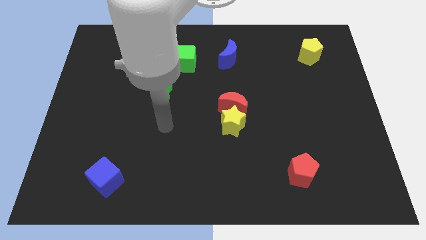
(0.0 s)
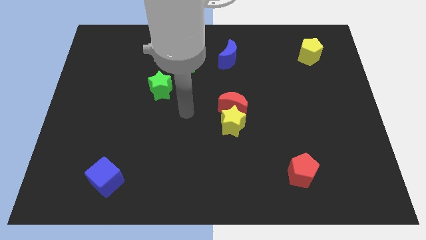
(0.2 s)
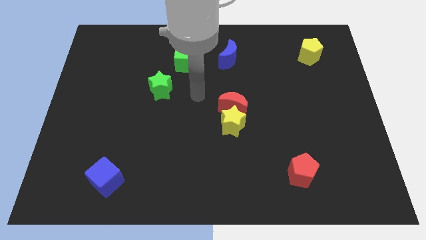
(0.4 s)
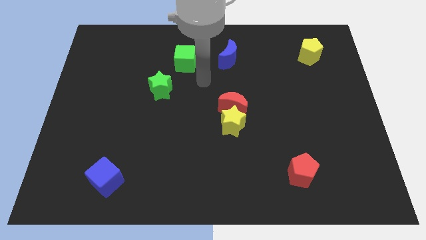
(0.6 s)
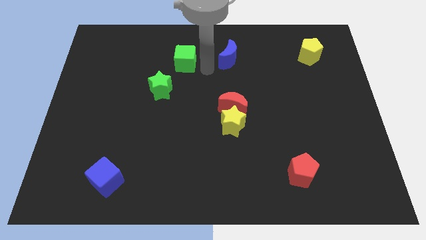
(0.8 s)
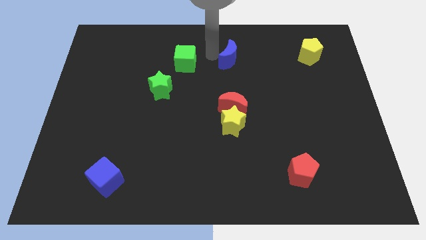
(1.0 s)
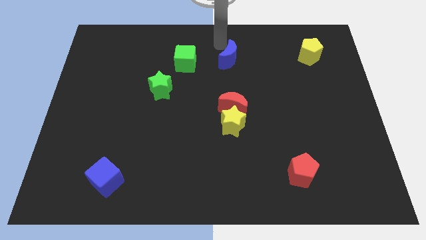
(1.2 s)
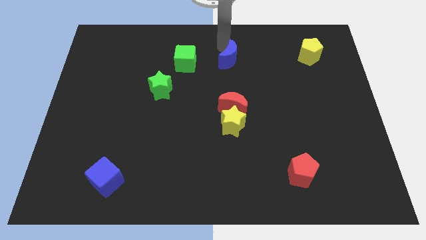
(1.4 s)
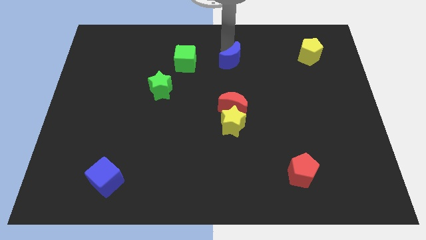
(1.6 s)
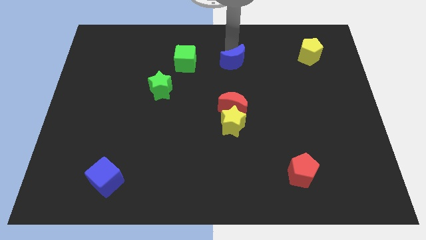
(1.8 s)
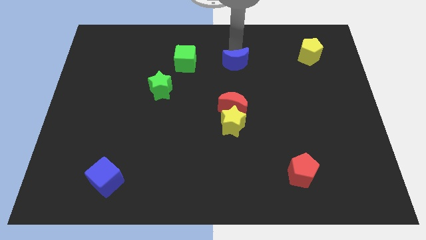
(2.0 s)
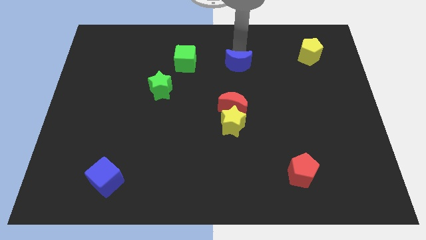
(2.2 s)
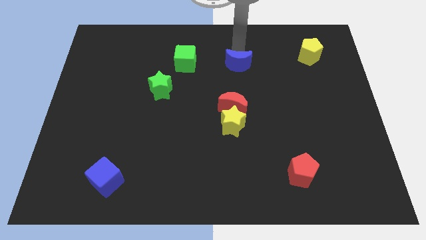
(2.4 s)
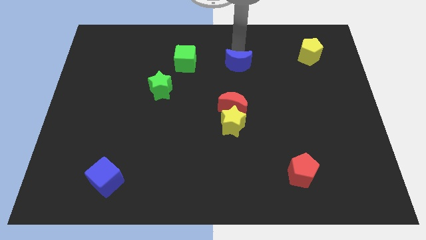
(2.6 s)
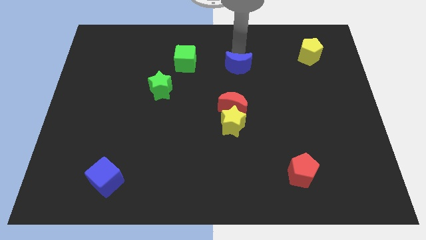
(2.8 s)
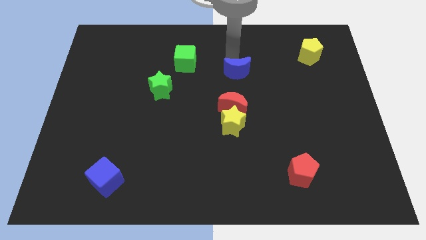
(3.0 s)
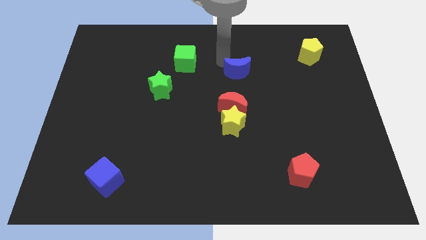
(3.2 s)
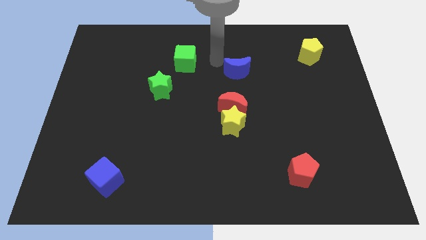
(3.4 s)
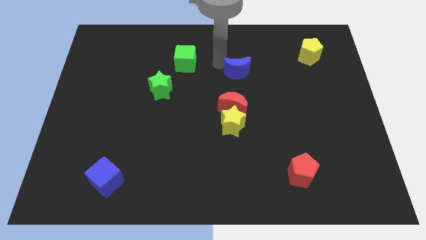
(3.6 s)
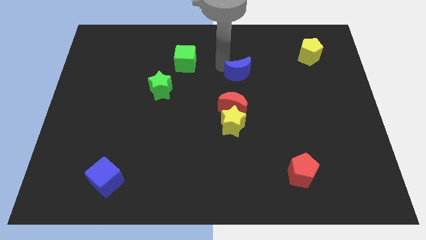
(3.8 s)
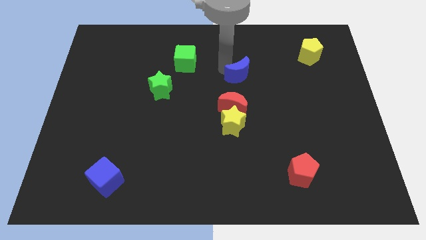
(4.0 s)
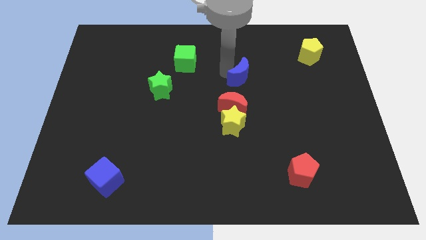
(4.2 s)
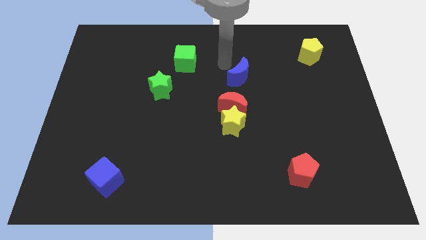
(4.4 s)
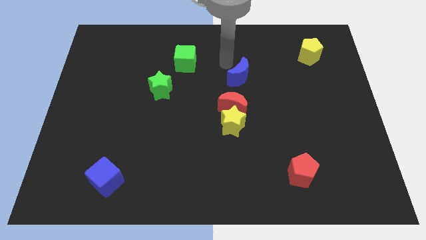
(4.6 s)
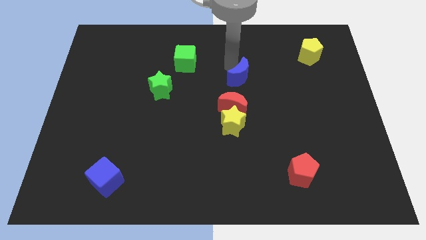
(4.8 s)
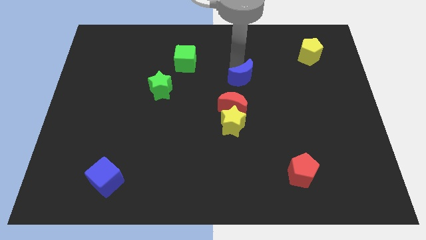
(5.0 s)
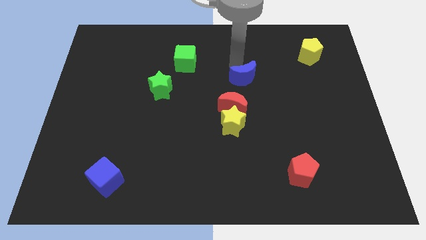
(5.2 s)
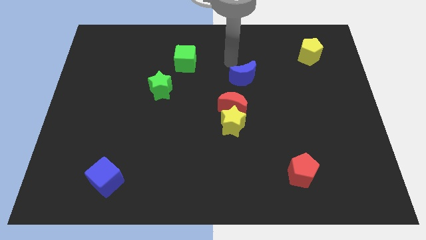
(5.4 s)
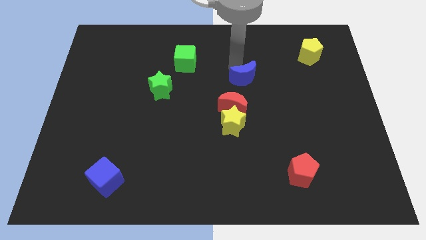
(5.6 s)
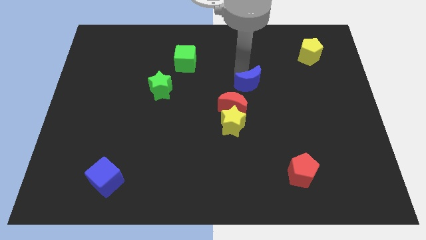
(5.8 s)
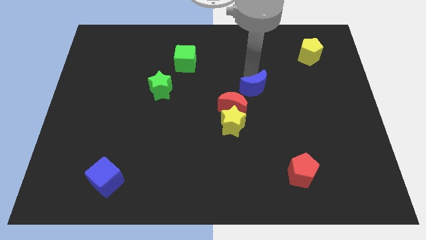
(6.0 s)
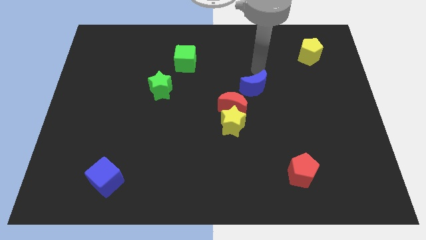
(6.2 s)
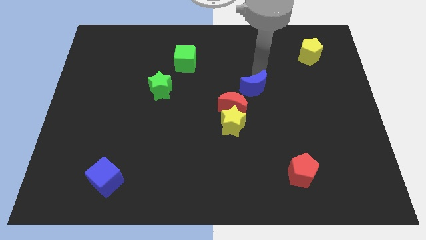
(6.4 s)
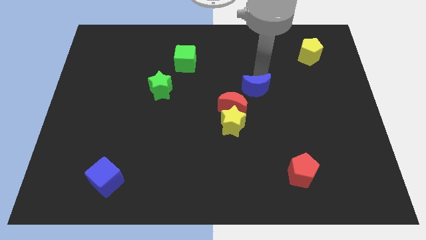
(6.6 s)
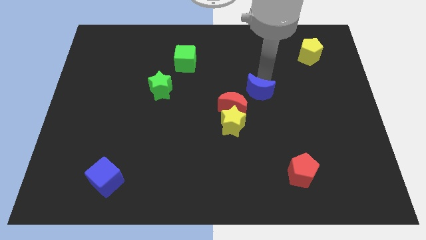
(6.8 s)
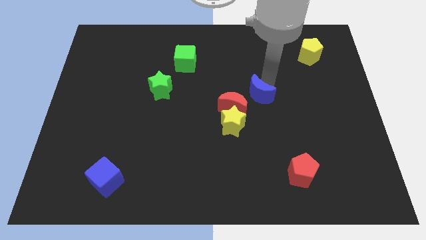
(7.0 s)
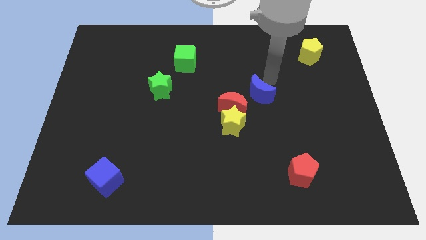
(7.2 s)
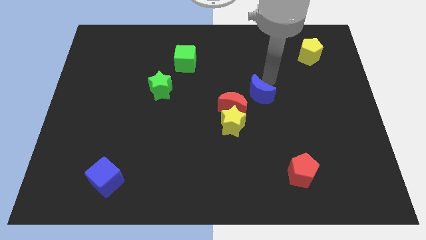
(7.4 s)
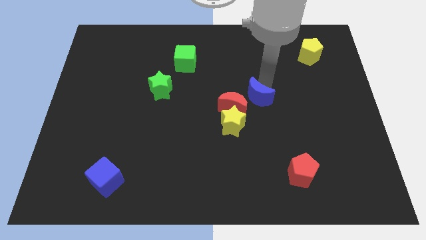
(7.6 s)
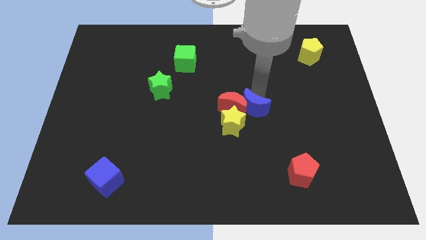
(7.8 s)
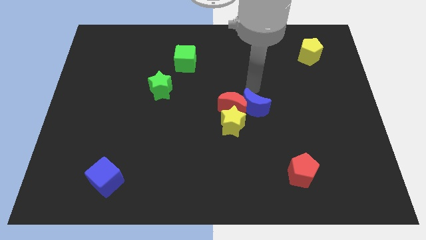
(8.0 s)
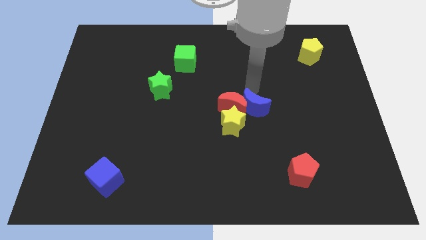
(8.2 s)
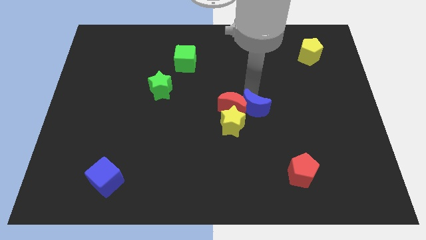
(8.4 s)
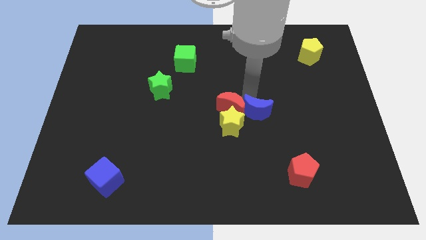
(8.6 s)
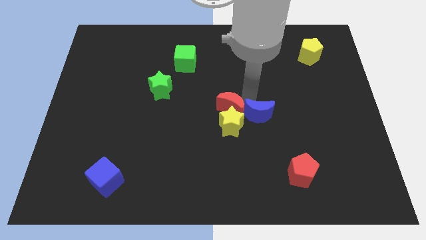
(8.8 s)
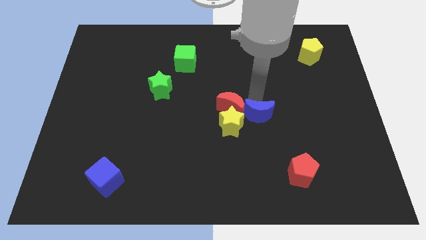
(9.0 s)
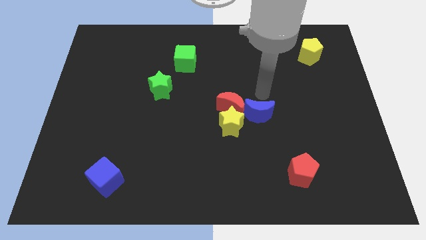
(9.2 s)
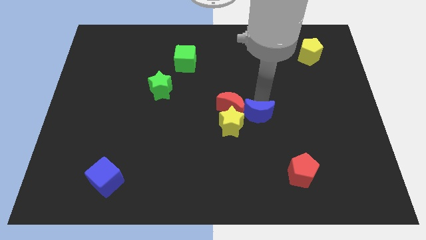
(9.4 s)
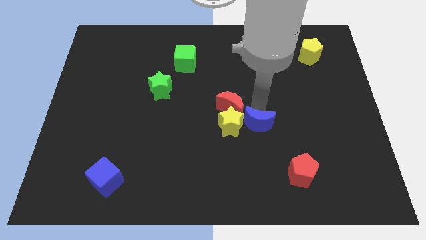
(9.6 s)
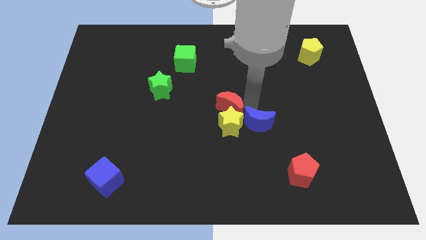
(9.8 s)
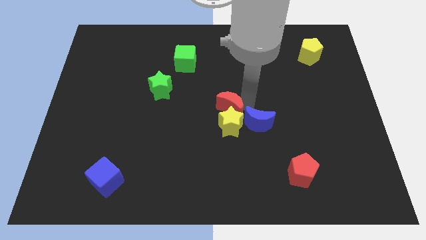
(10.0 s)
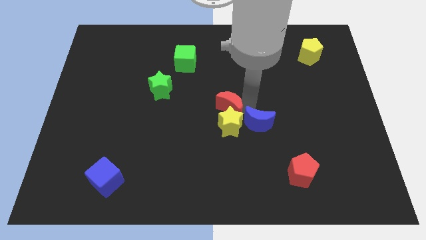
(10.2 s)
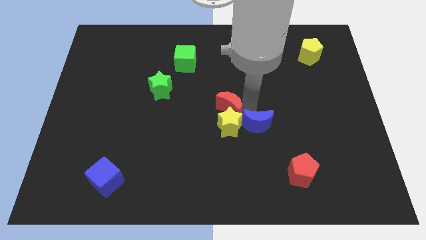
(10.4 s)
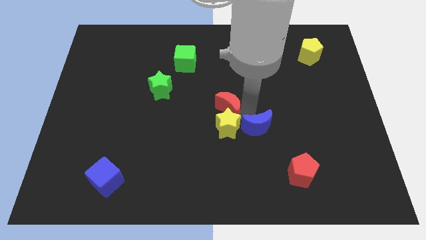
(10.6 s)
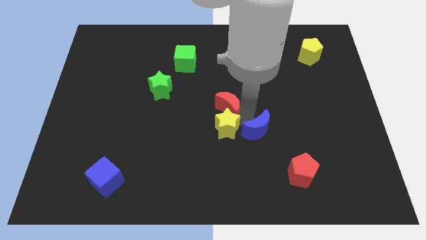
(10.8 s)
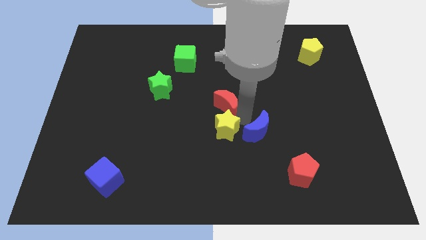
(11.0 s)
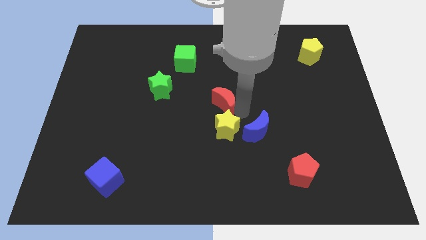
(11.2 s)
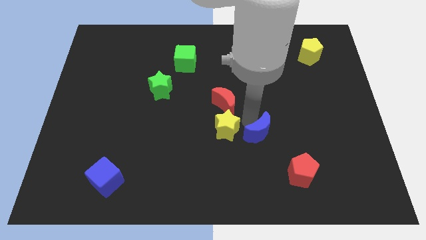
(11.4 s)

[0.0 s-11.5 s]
push the blue moon to the top left side of the red pentagon

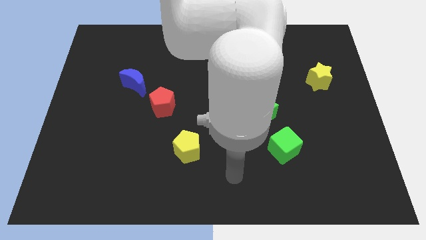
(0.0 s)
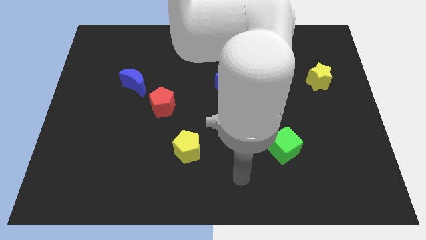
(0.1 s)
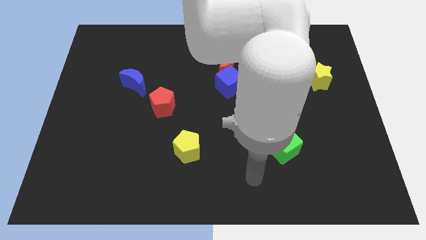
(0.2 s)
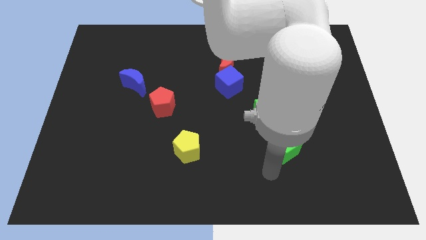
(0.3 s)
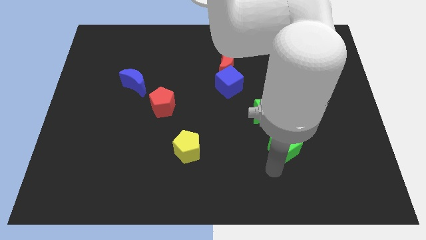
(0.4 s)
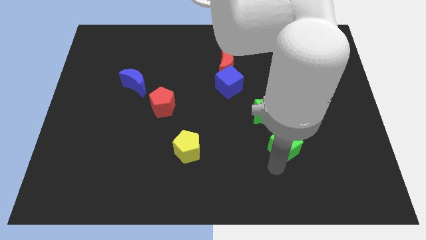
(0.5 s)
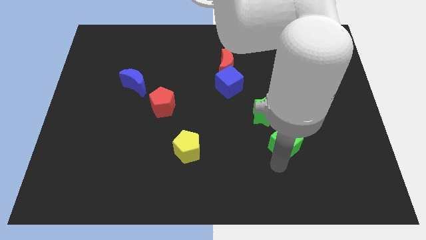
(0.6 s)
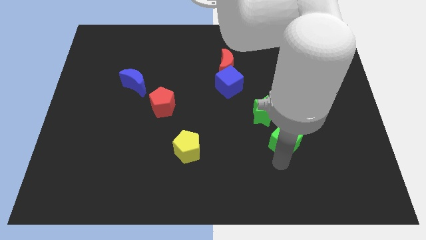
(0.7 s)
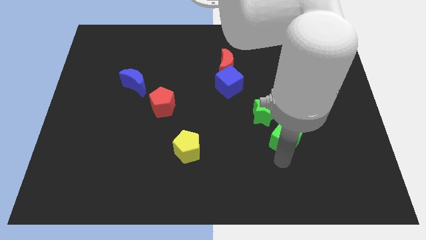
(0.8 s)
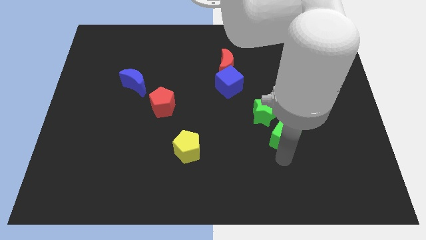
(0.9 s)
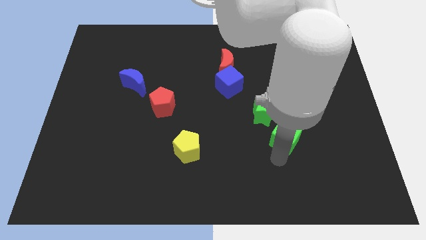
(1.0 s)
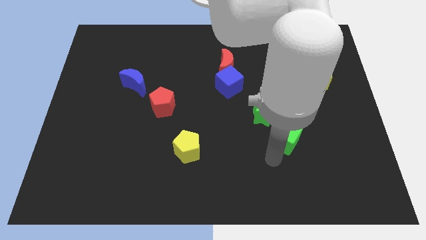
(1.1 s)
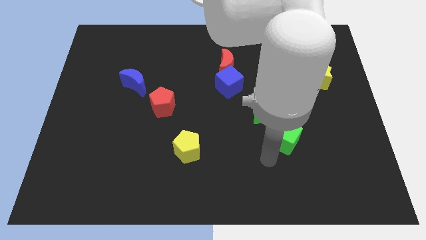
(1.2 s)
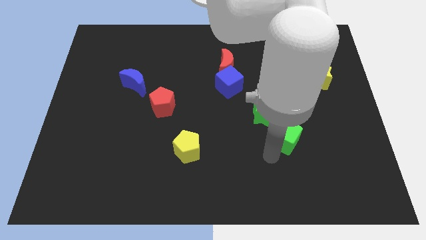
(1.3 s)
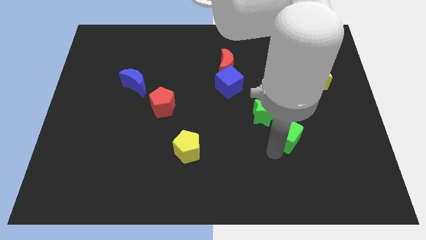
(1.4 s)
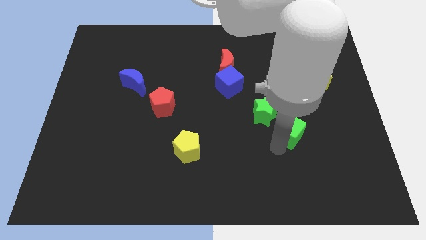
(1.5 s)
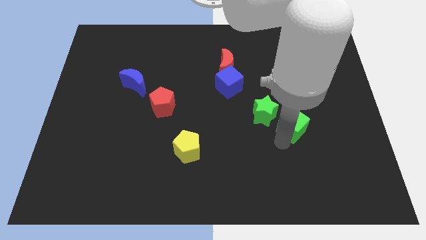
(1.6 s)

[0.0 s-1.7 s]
push the green cube to the right of the green star
